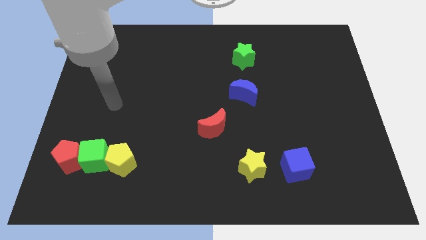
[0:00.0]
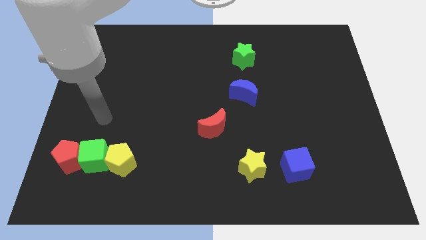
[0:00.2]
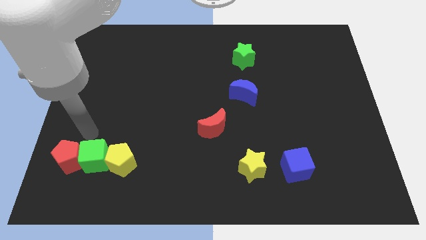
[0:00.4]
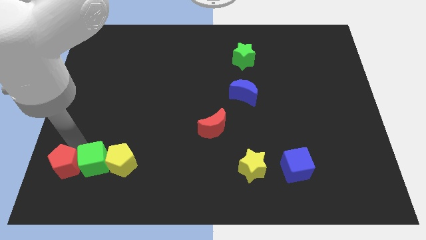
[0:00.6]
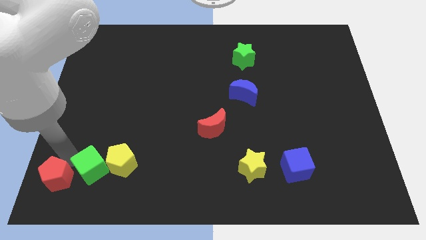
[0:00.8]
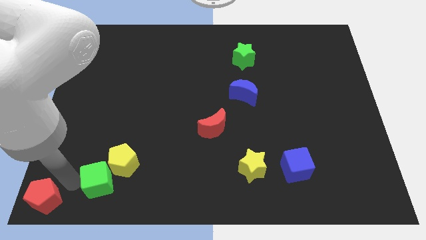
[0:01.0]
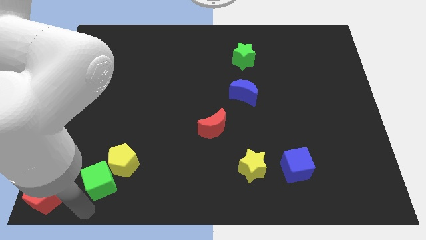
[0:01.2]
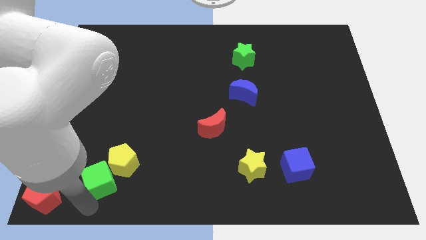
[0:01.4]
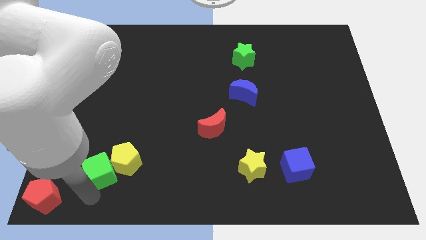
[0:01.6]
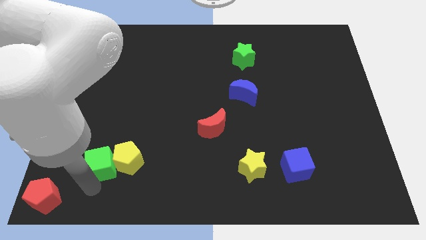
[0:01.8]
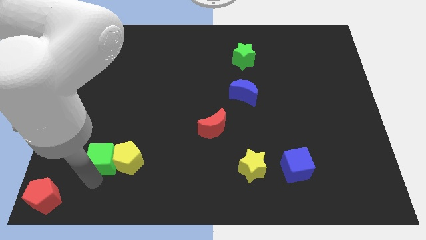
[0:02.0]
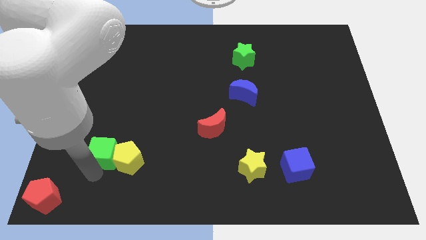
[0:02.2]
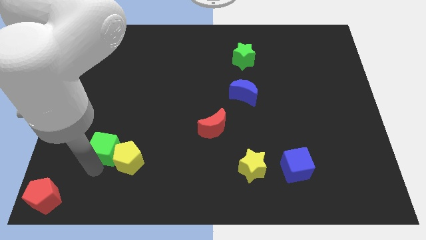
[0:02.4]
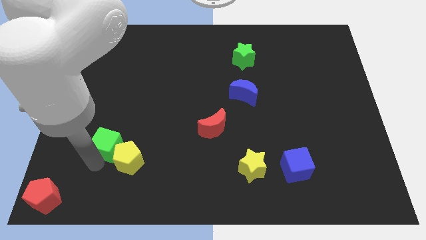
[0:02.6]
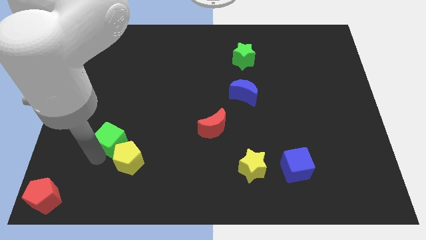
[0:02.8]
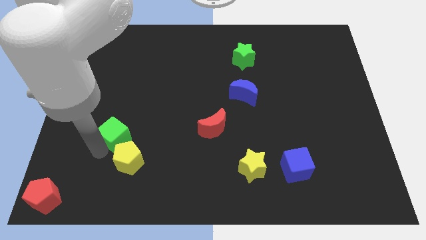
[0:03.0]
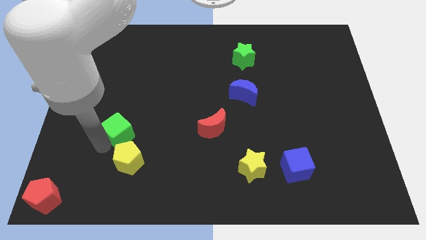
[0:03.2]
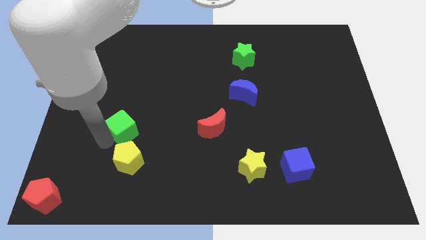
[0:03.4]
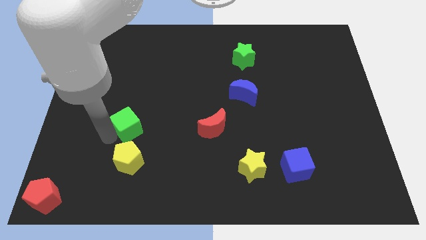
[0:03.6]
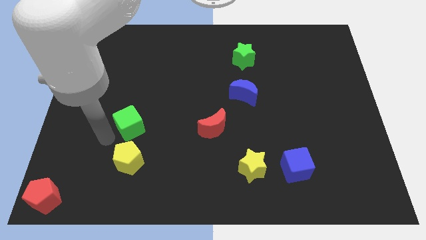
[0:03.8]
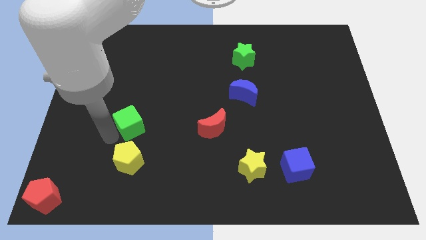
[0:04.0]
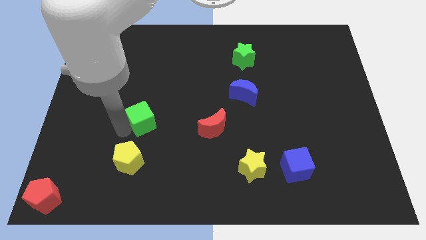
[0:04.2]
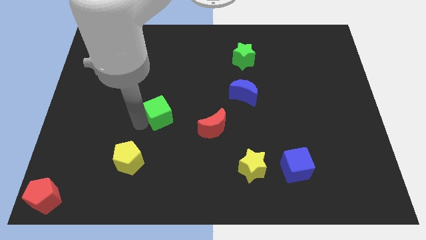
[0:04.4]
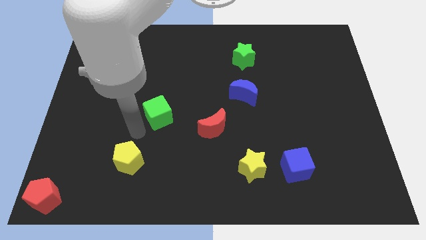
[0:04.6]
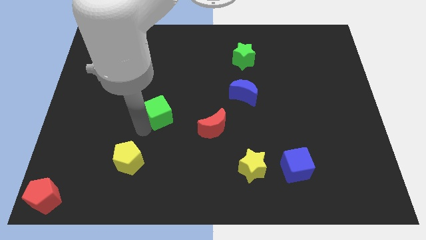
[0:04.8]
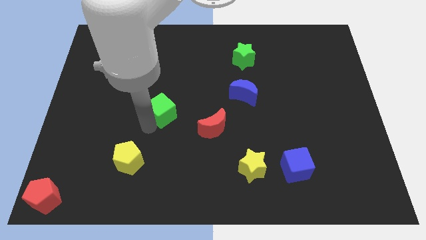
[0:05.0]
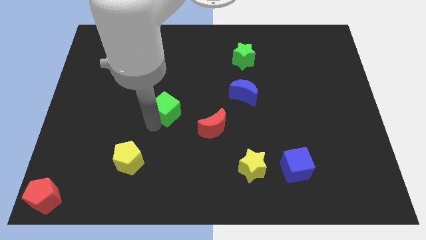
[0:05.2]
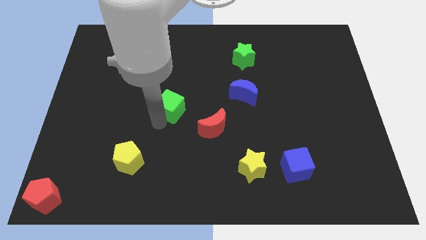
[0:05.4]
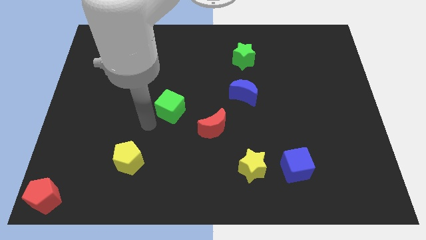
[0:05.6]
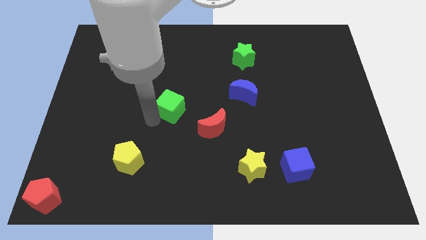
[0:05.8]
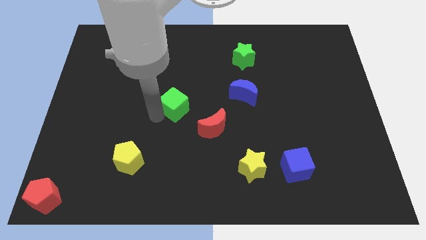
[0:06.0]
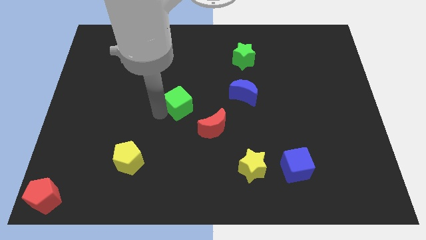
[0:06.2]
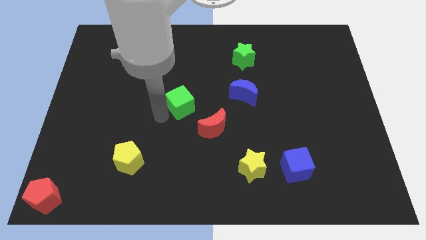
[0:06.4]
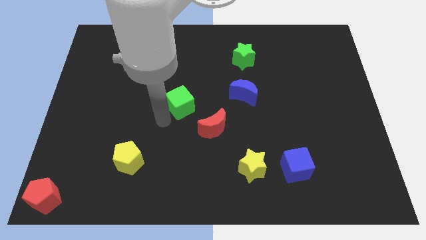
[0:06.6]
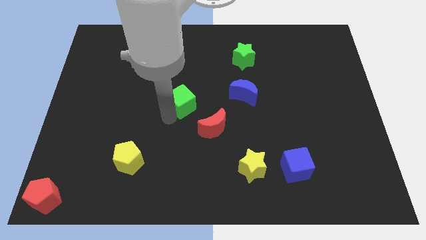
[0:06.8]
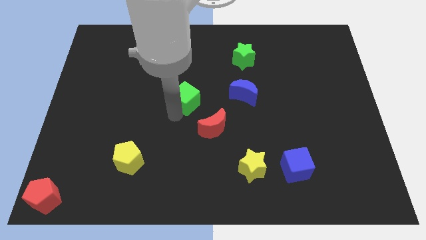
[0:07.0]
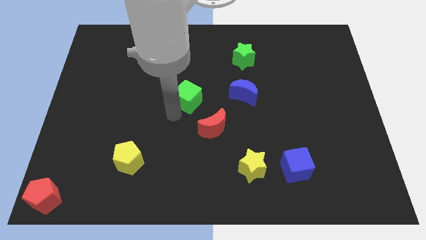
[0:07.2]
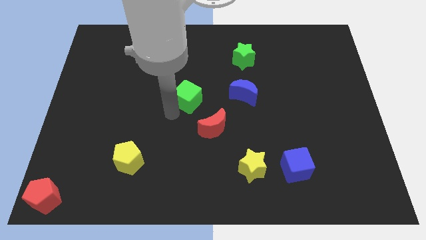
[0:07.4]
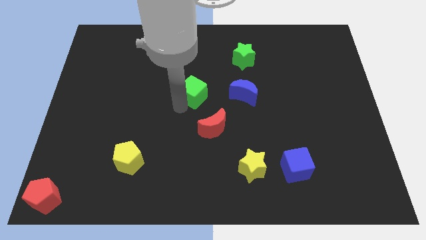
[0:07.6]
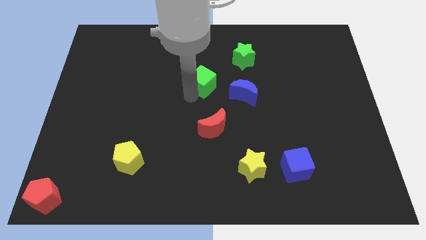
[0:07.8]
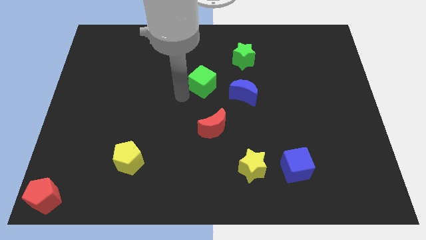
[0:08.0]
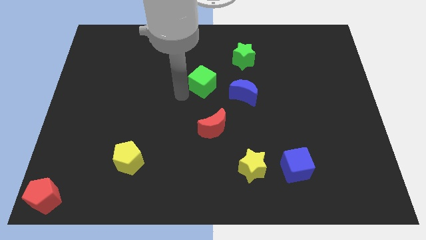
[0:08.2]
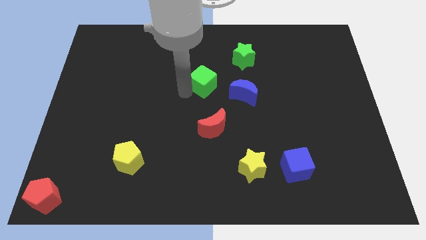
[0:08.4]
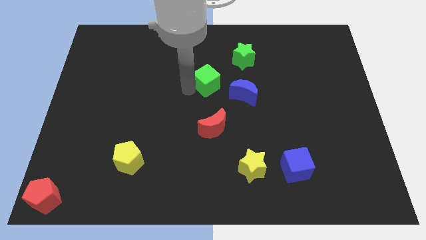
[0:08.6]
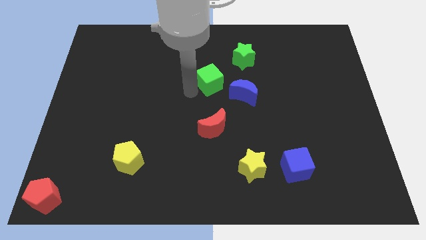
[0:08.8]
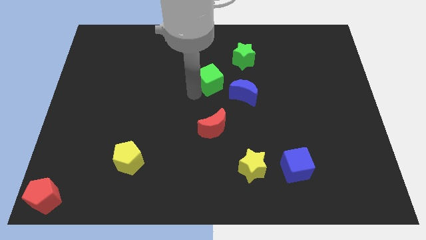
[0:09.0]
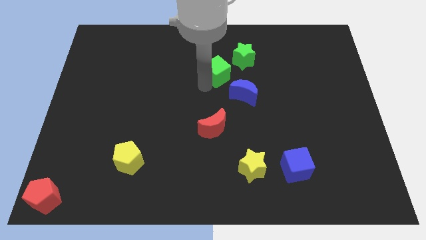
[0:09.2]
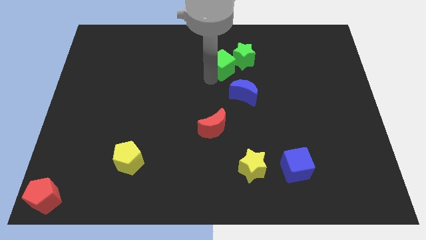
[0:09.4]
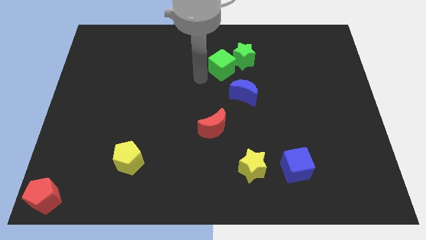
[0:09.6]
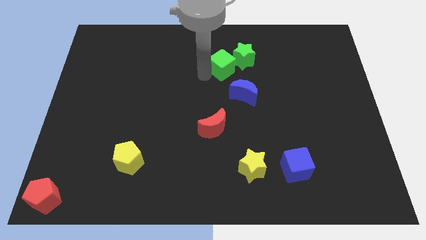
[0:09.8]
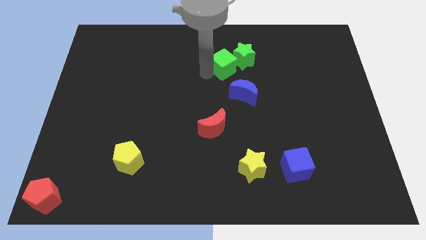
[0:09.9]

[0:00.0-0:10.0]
slide the green cube next to the green star

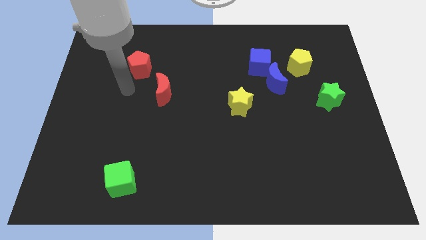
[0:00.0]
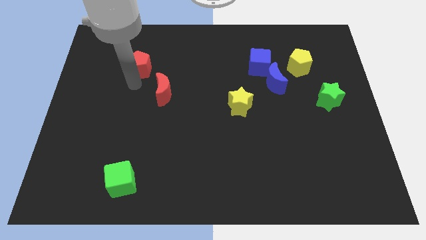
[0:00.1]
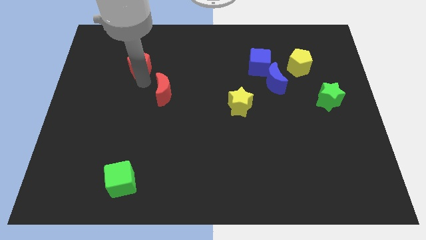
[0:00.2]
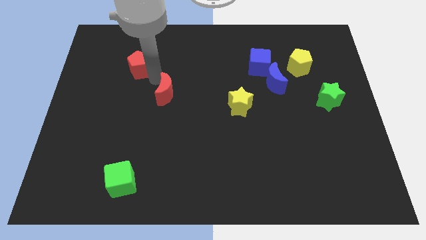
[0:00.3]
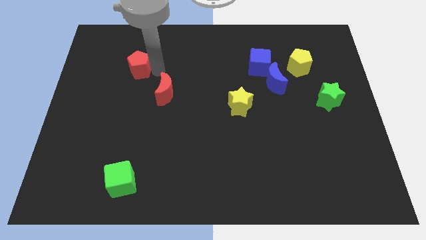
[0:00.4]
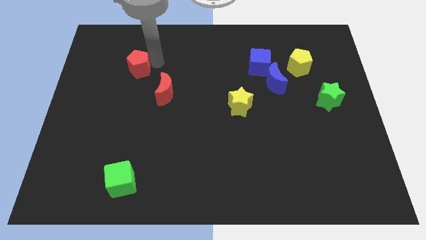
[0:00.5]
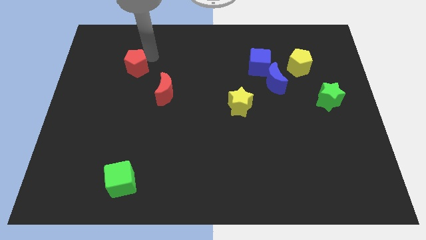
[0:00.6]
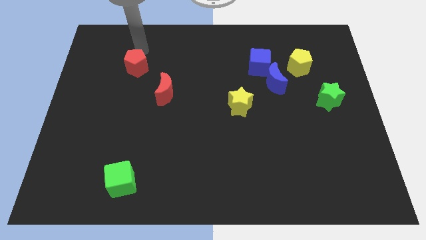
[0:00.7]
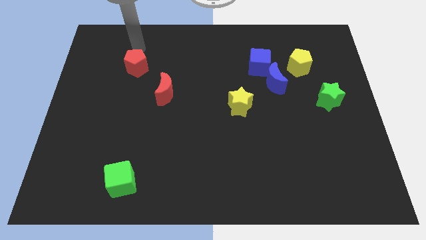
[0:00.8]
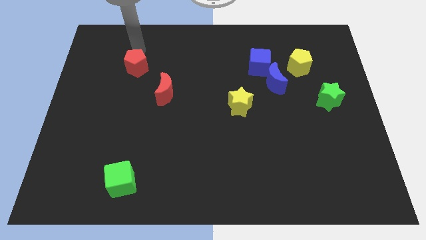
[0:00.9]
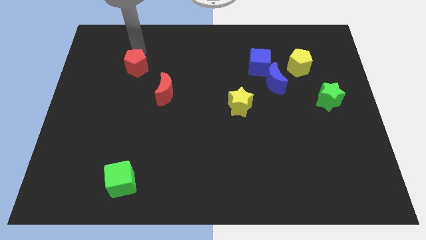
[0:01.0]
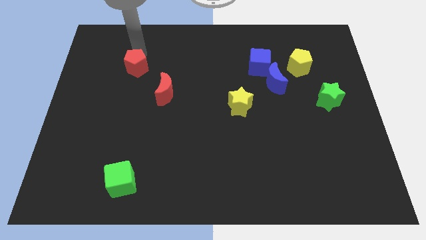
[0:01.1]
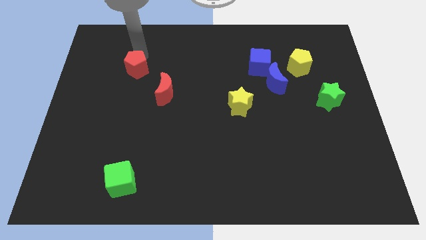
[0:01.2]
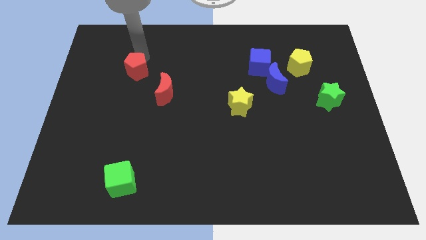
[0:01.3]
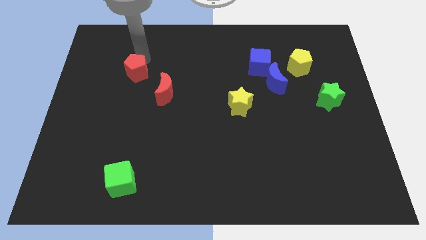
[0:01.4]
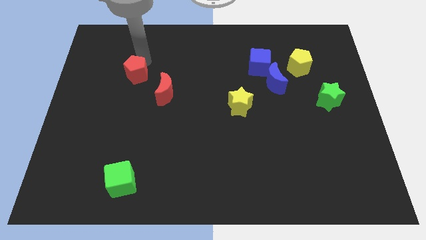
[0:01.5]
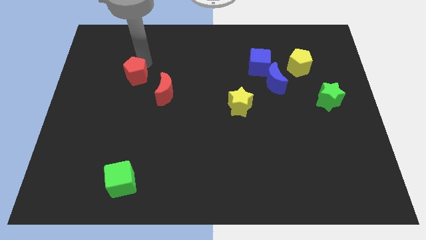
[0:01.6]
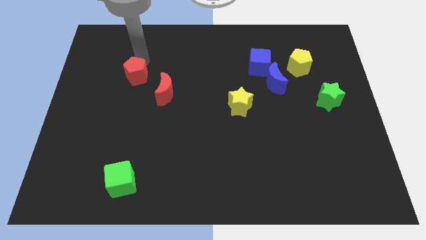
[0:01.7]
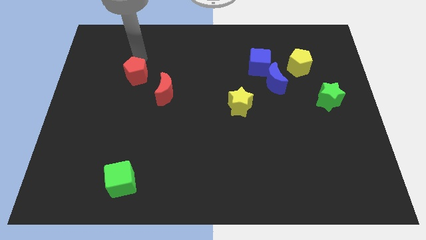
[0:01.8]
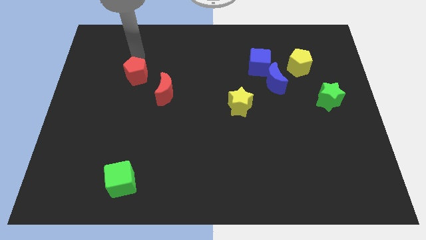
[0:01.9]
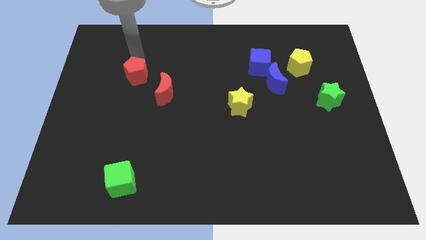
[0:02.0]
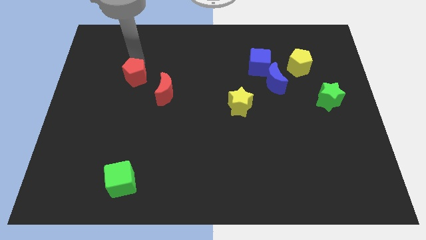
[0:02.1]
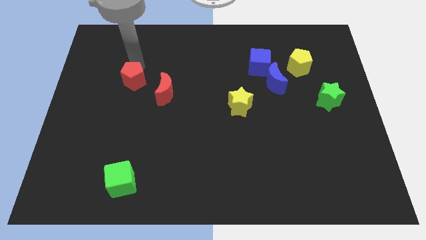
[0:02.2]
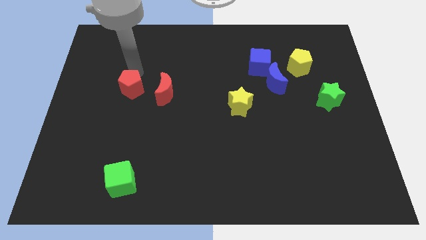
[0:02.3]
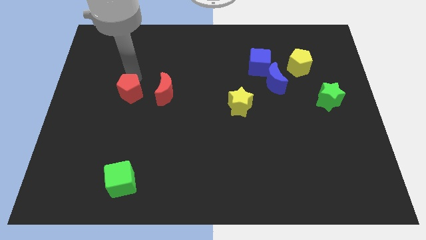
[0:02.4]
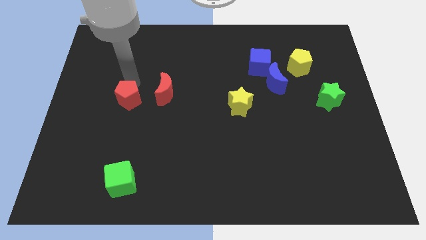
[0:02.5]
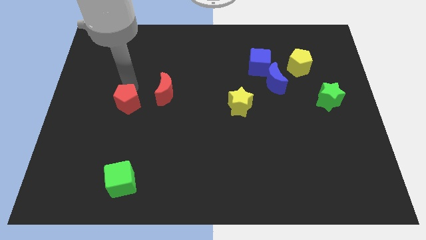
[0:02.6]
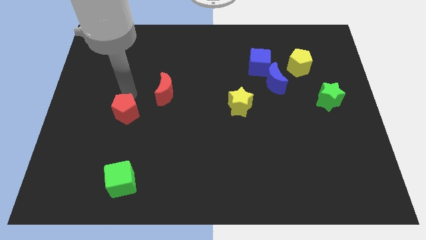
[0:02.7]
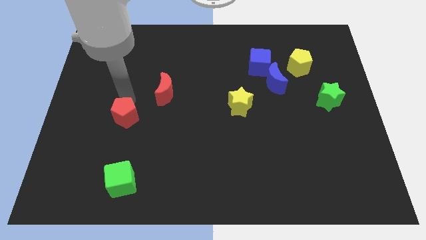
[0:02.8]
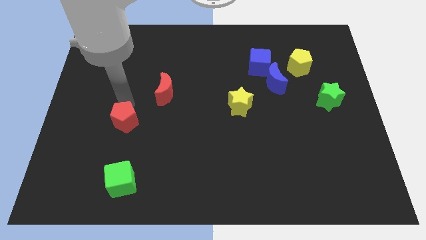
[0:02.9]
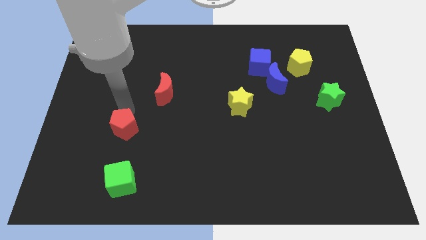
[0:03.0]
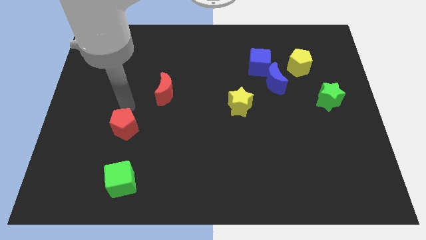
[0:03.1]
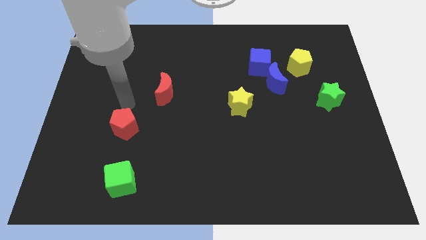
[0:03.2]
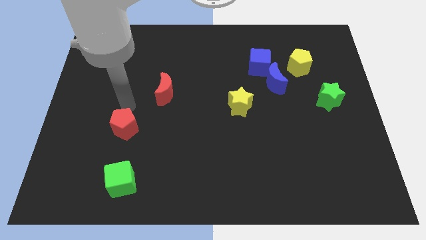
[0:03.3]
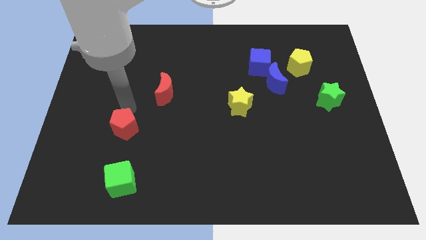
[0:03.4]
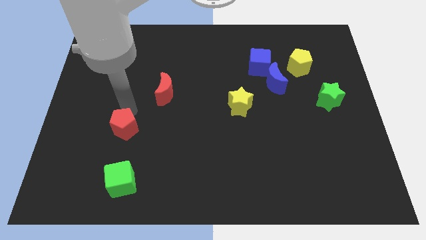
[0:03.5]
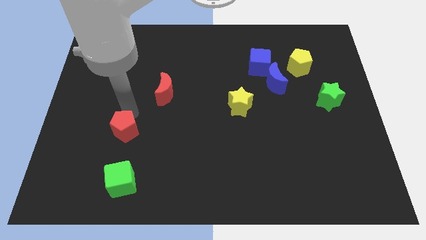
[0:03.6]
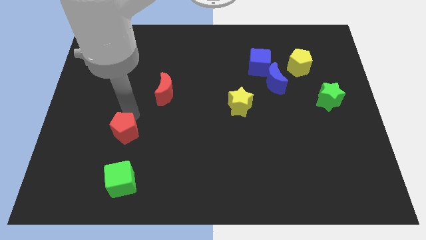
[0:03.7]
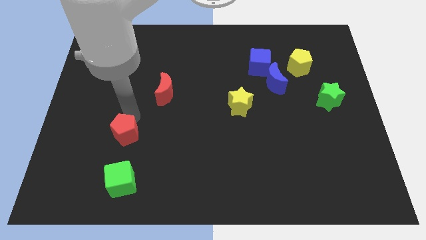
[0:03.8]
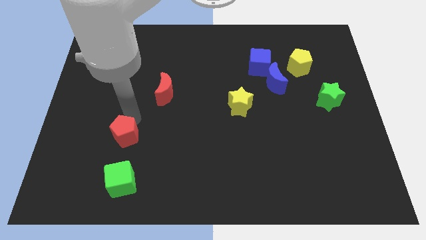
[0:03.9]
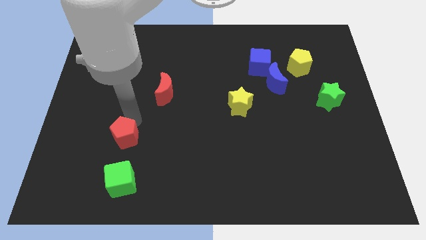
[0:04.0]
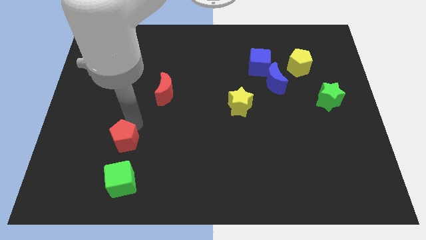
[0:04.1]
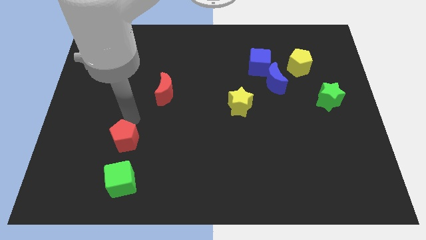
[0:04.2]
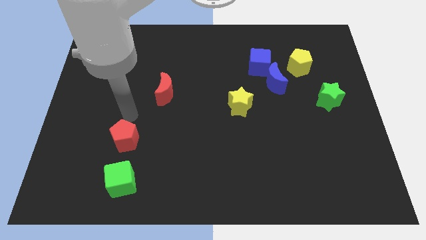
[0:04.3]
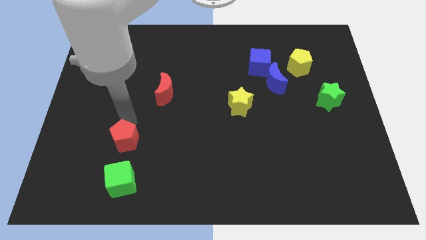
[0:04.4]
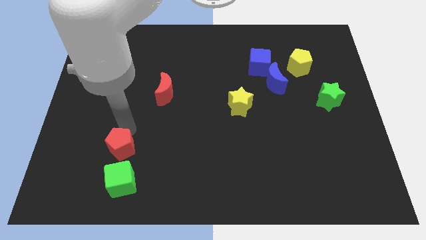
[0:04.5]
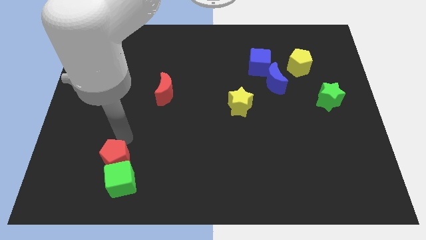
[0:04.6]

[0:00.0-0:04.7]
push the red pentagon to the green cube
